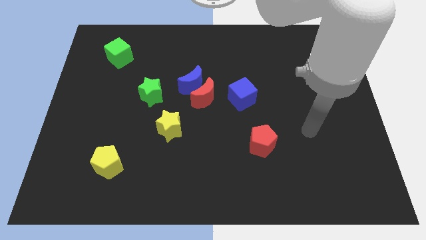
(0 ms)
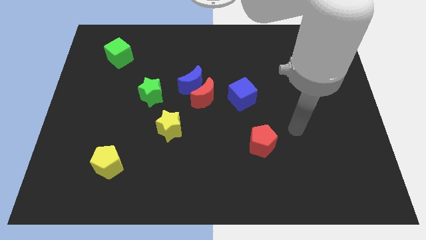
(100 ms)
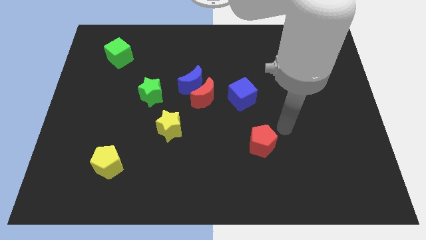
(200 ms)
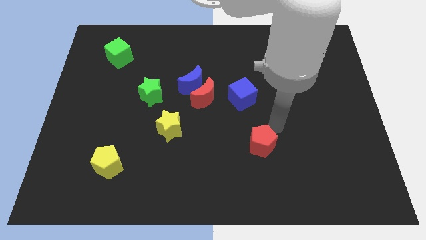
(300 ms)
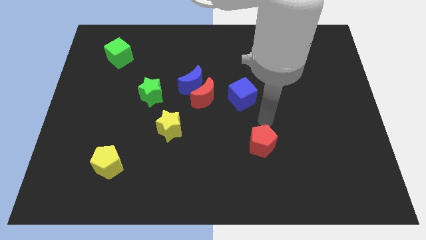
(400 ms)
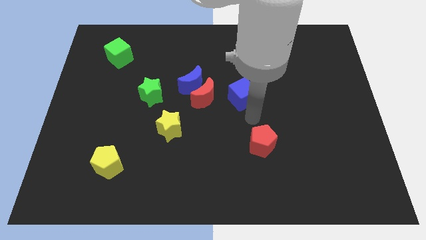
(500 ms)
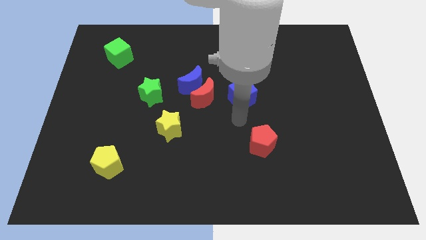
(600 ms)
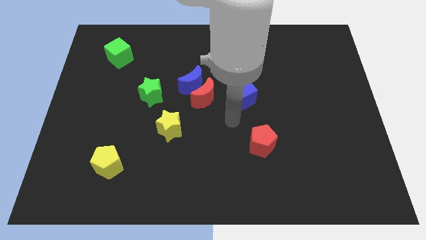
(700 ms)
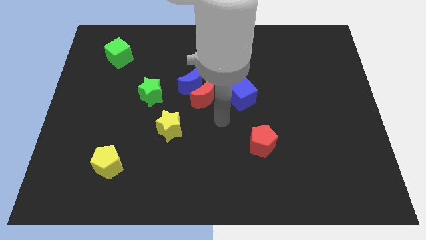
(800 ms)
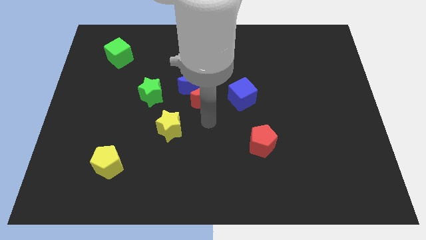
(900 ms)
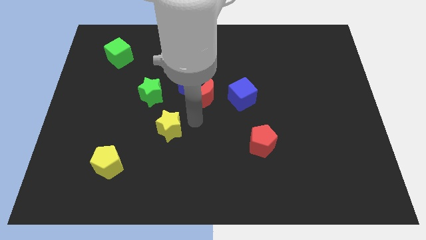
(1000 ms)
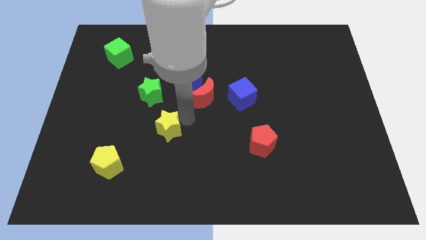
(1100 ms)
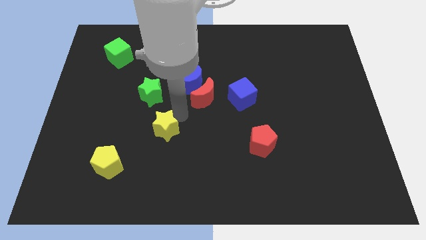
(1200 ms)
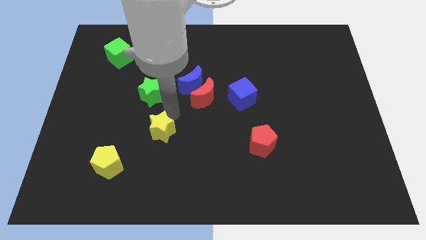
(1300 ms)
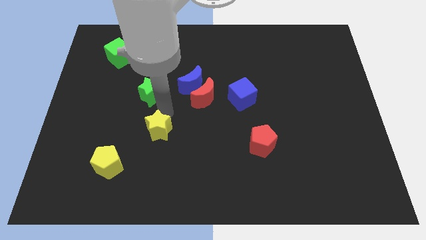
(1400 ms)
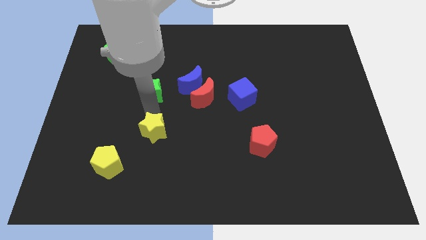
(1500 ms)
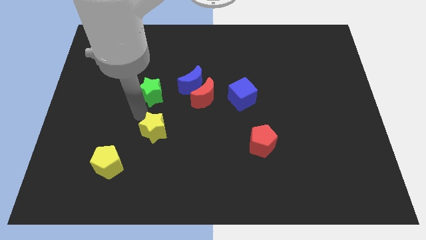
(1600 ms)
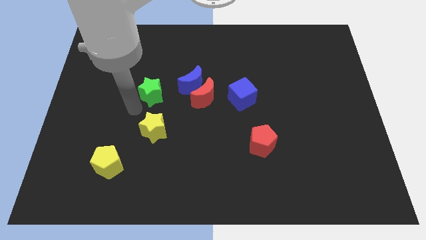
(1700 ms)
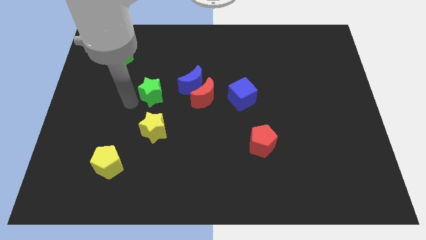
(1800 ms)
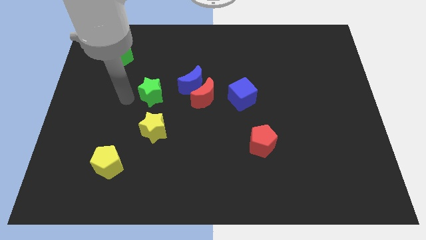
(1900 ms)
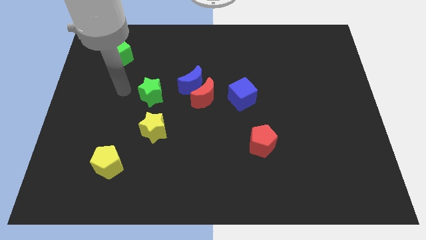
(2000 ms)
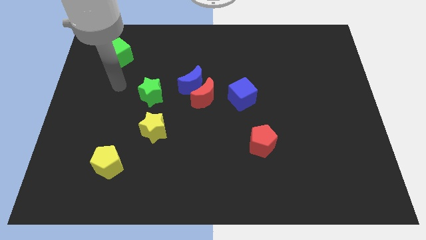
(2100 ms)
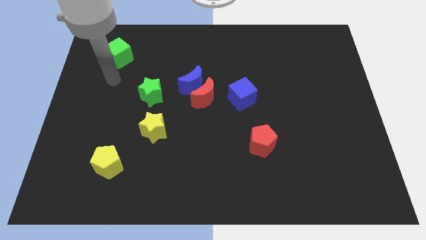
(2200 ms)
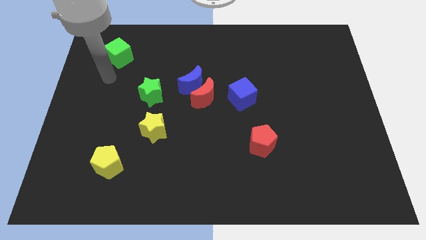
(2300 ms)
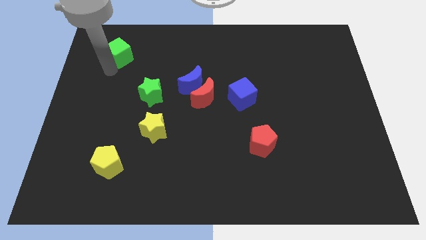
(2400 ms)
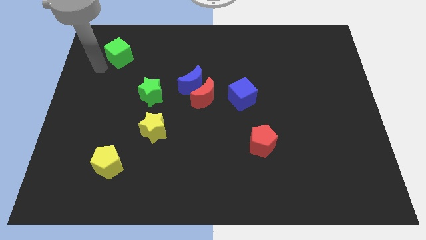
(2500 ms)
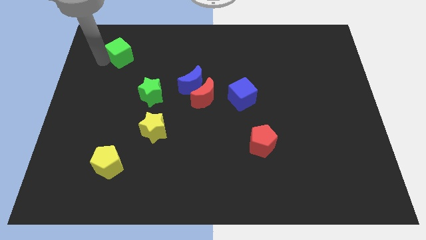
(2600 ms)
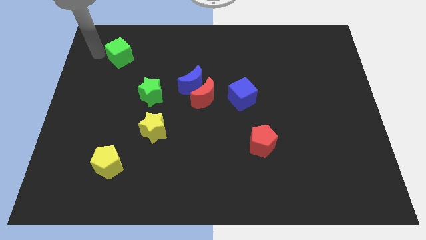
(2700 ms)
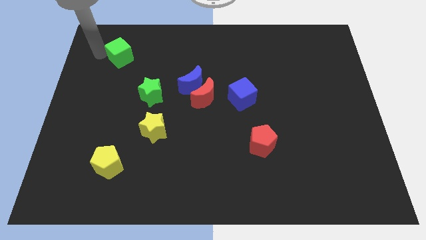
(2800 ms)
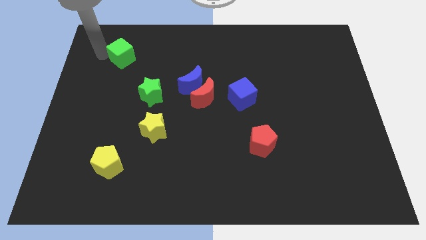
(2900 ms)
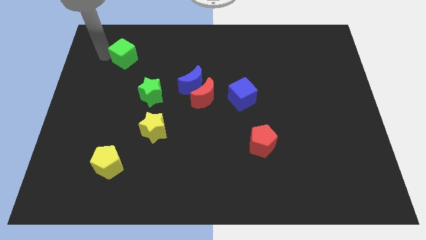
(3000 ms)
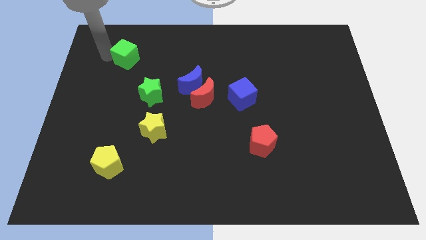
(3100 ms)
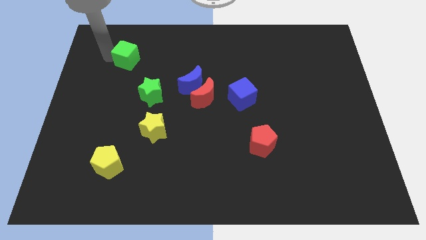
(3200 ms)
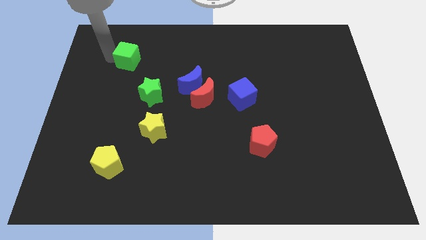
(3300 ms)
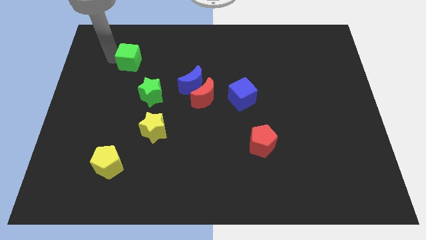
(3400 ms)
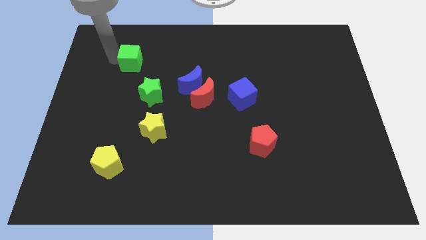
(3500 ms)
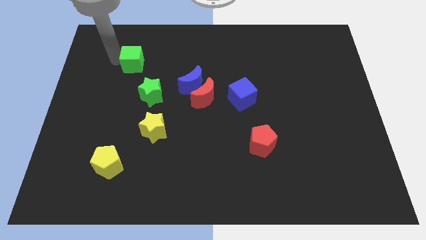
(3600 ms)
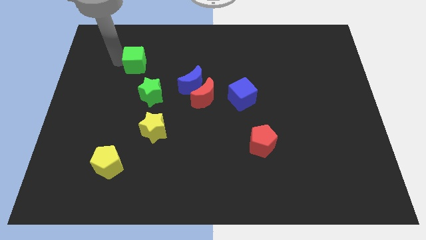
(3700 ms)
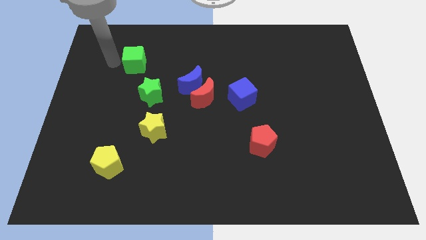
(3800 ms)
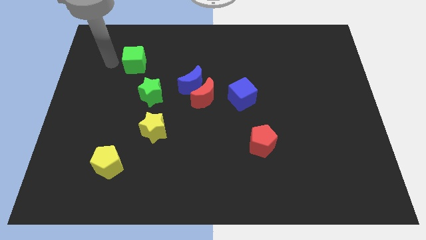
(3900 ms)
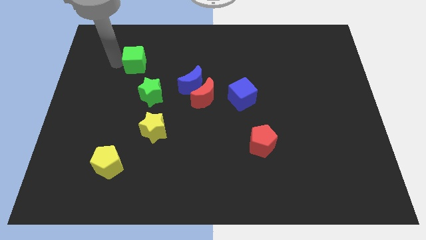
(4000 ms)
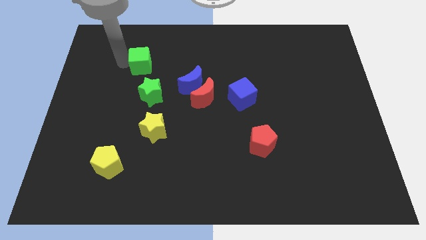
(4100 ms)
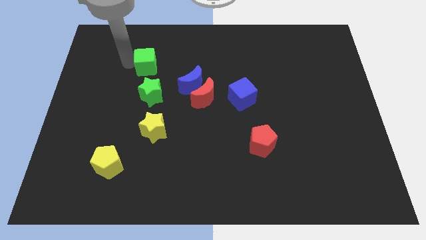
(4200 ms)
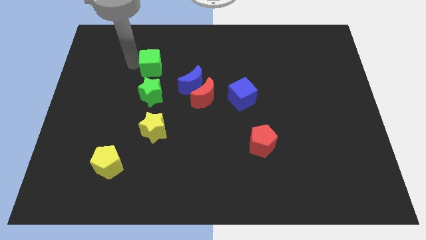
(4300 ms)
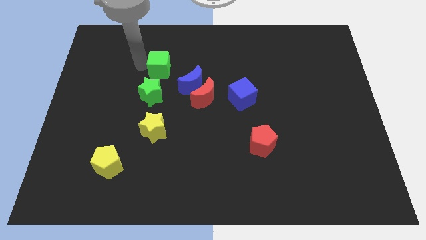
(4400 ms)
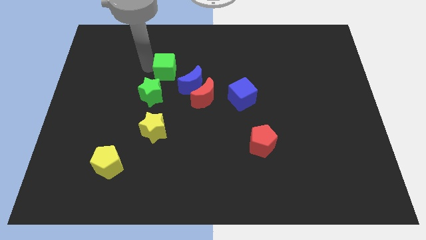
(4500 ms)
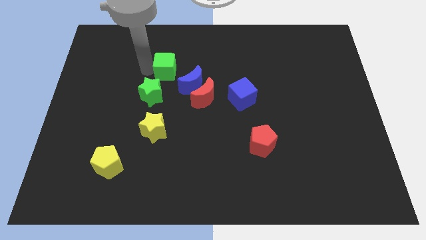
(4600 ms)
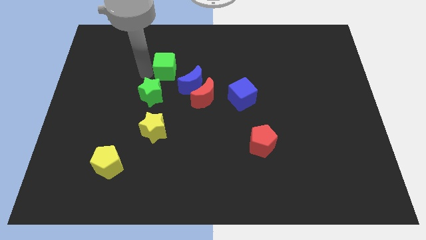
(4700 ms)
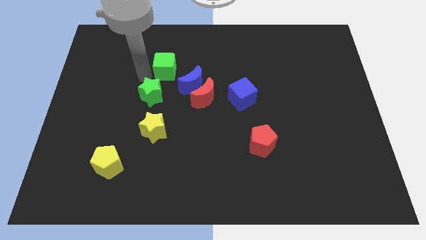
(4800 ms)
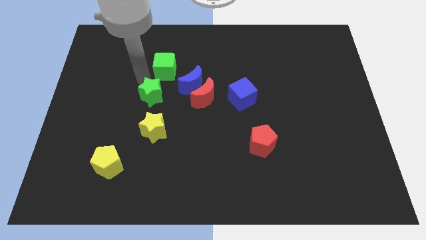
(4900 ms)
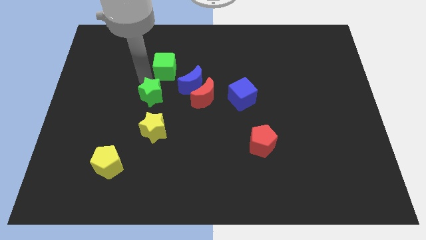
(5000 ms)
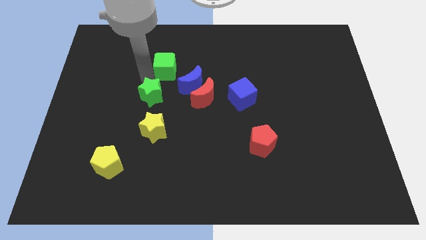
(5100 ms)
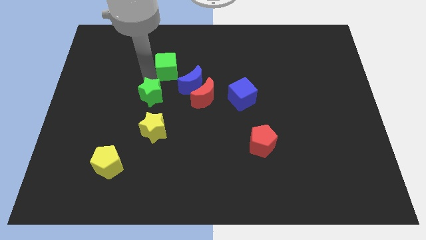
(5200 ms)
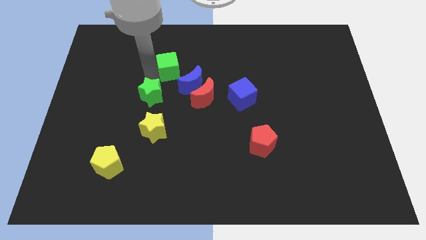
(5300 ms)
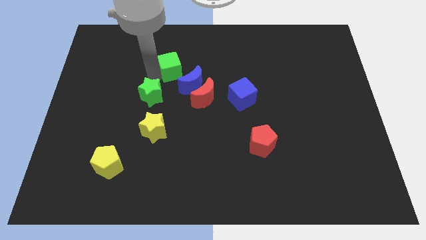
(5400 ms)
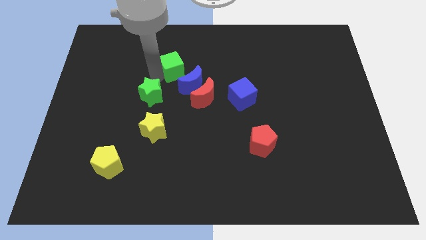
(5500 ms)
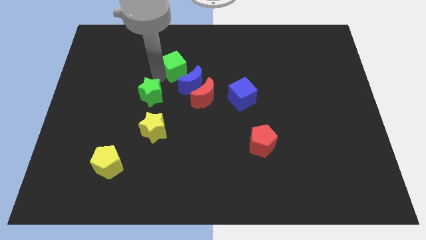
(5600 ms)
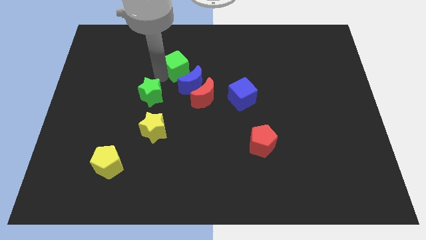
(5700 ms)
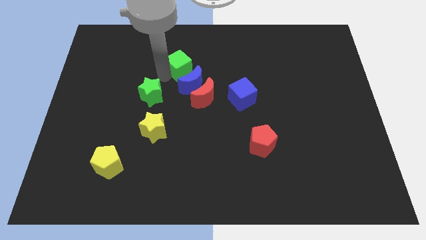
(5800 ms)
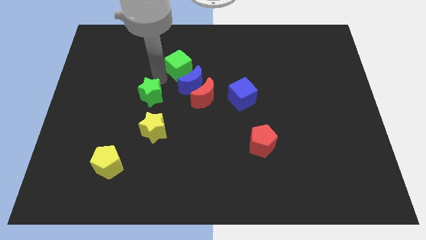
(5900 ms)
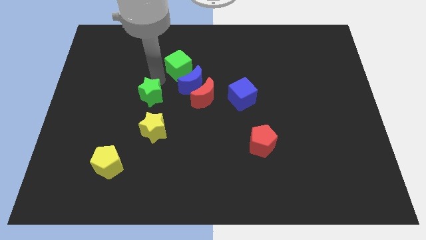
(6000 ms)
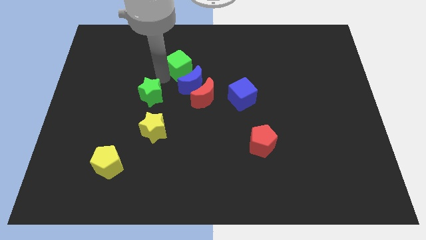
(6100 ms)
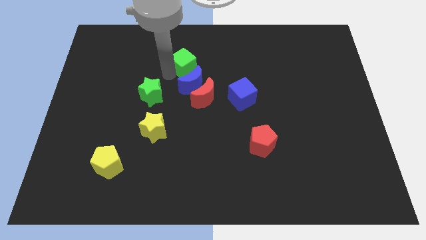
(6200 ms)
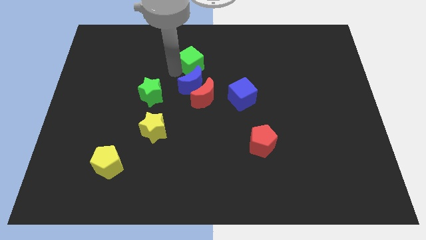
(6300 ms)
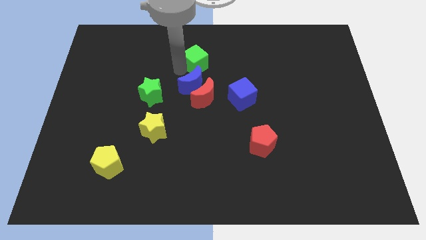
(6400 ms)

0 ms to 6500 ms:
push the green cube to the right

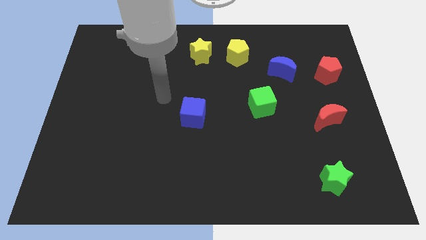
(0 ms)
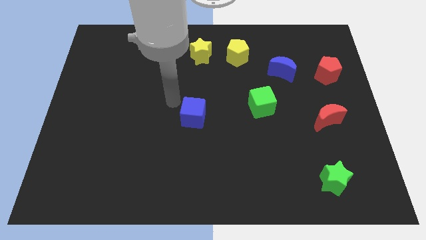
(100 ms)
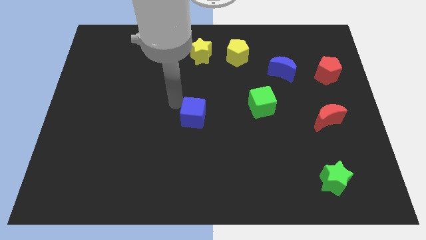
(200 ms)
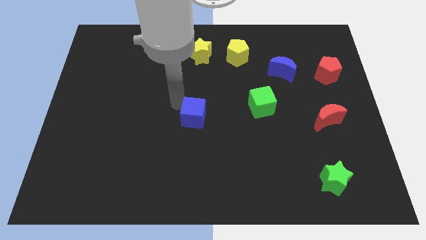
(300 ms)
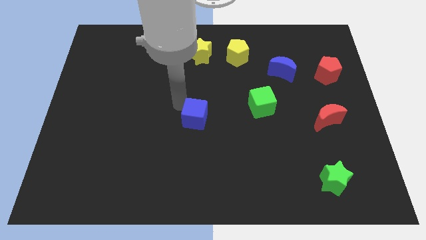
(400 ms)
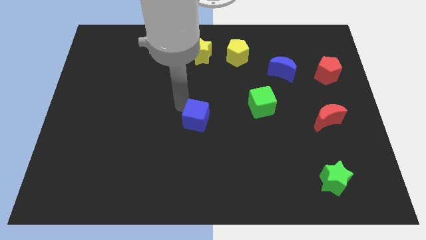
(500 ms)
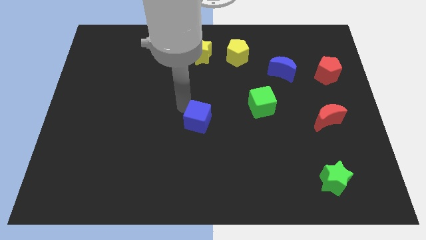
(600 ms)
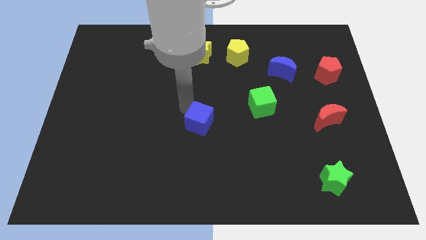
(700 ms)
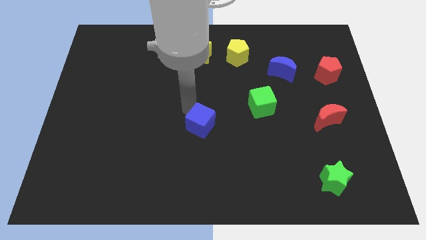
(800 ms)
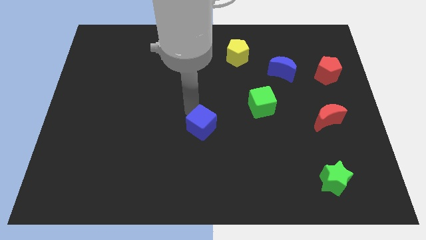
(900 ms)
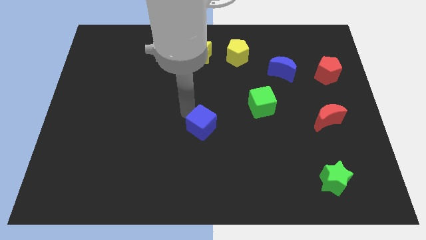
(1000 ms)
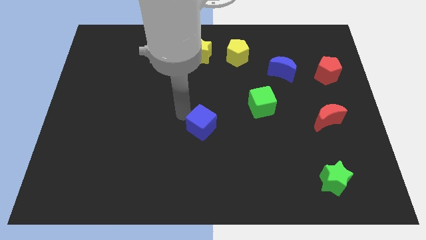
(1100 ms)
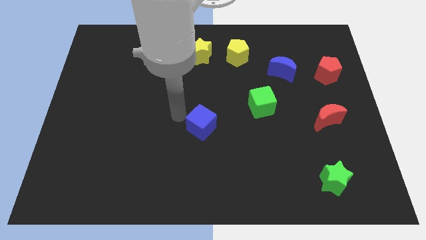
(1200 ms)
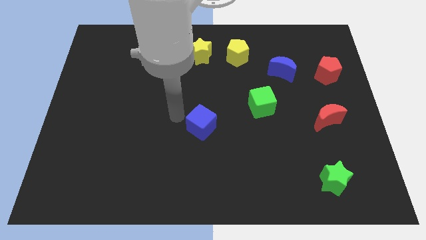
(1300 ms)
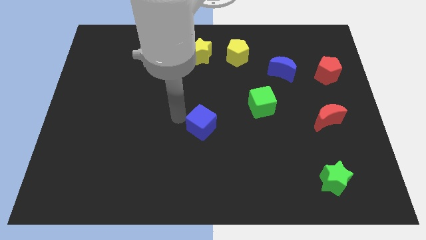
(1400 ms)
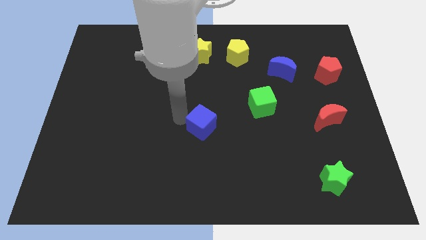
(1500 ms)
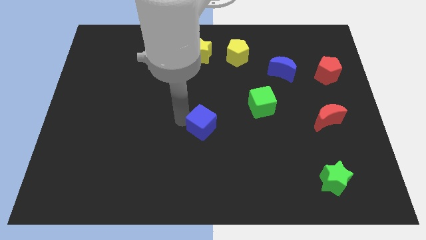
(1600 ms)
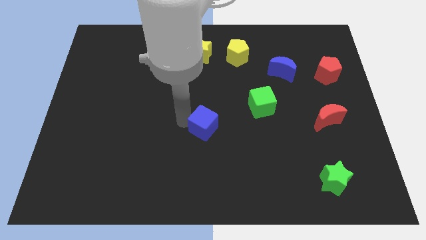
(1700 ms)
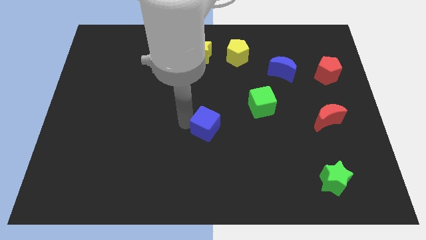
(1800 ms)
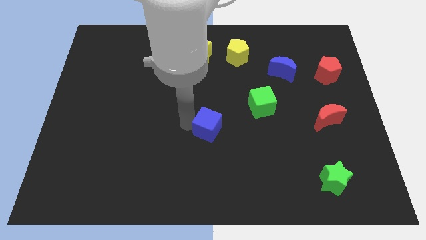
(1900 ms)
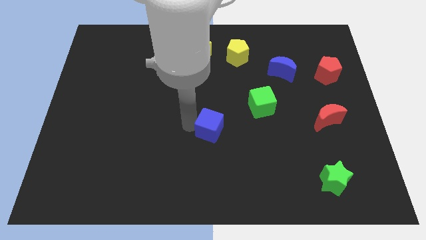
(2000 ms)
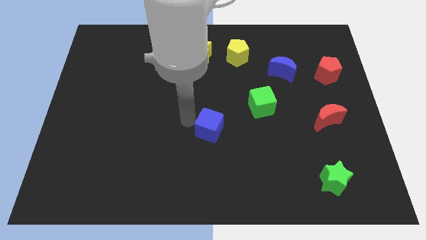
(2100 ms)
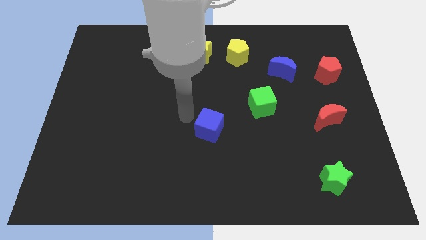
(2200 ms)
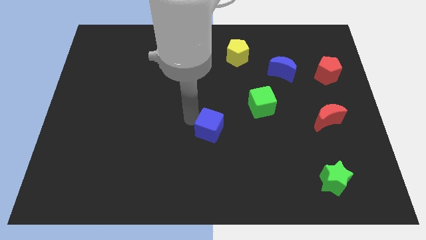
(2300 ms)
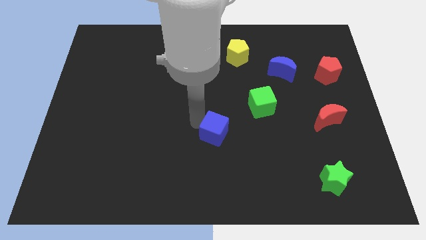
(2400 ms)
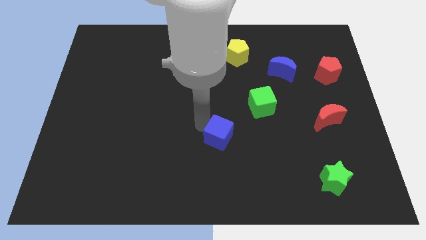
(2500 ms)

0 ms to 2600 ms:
push the blue cube downwards and right a little bit
